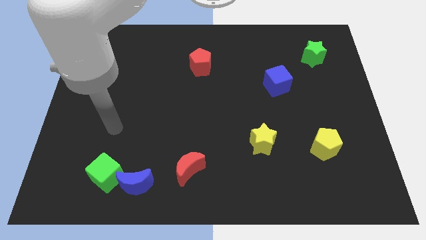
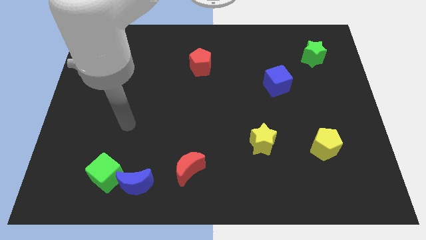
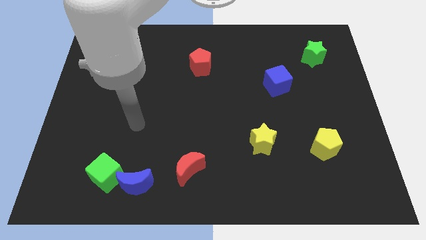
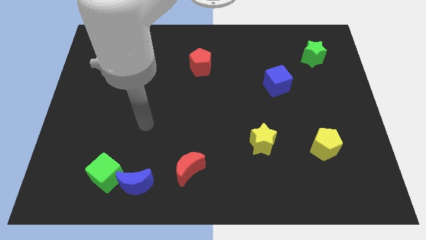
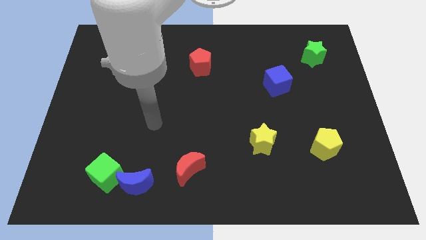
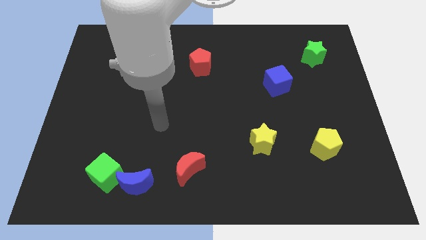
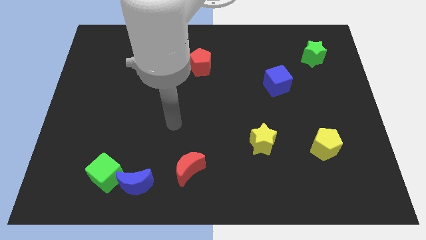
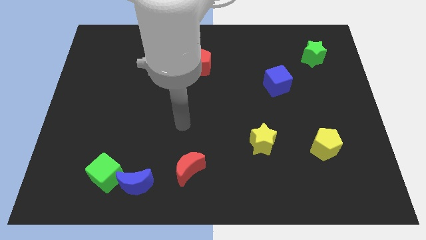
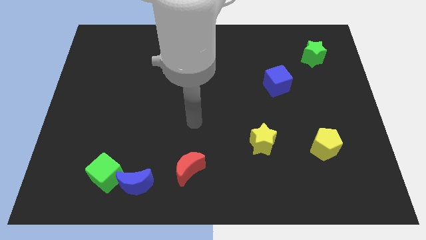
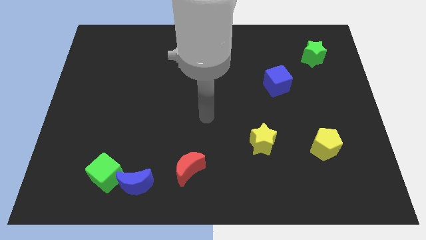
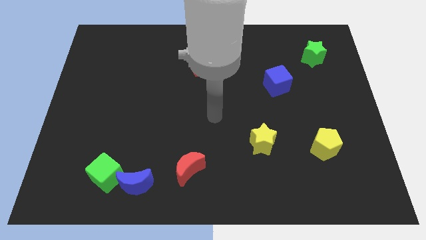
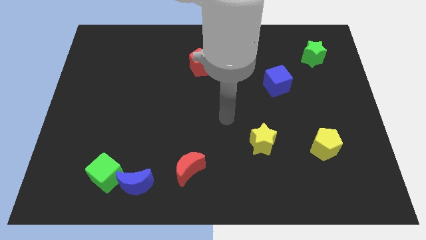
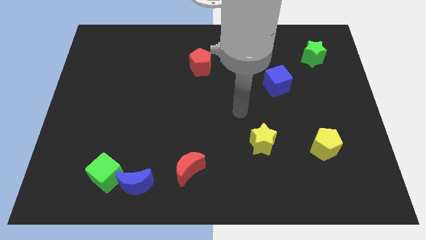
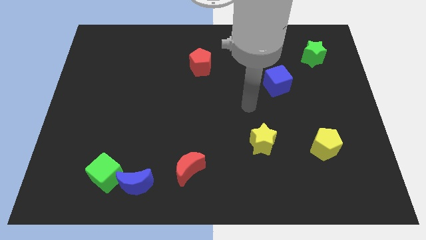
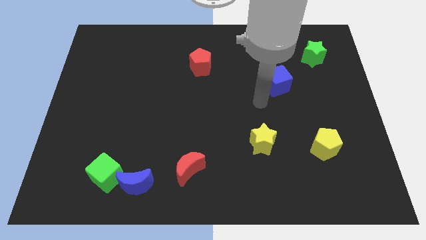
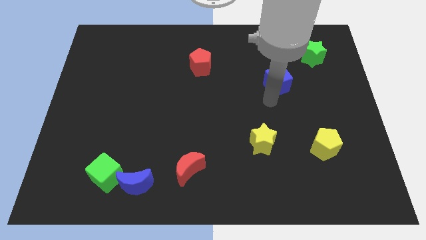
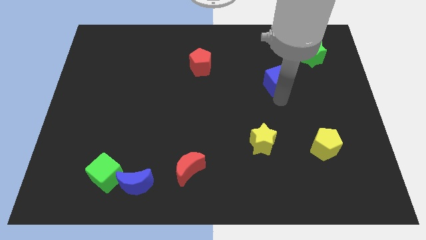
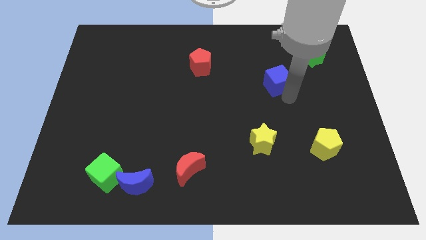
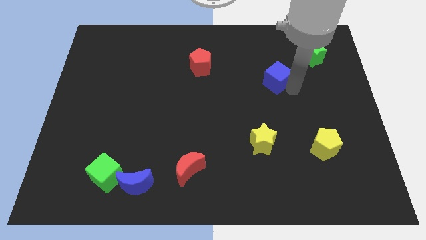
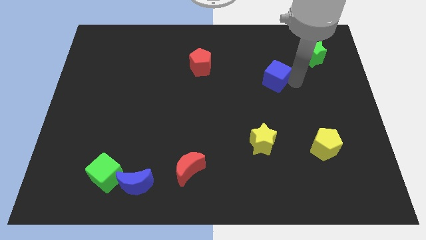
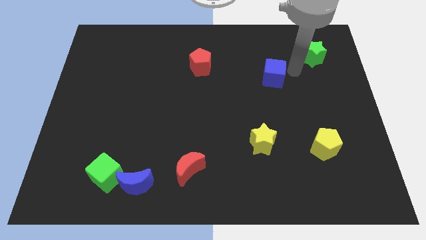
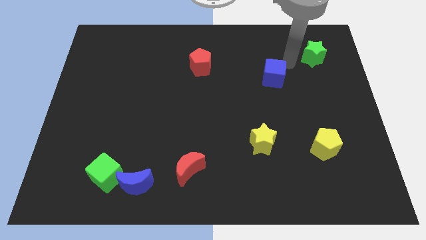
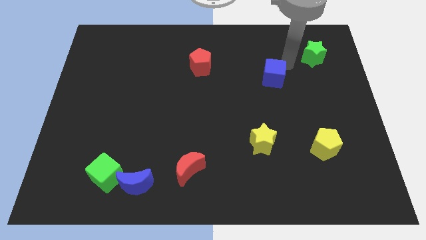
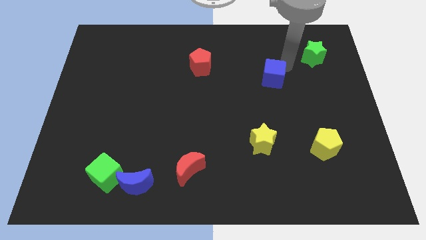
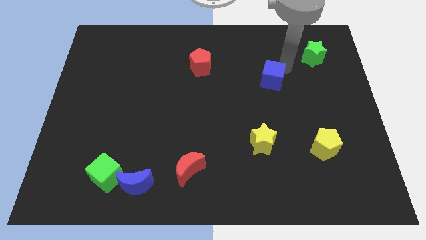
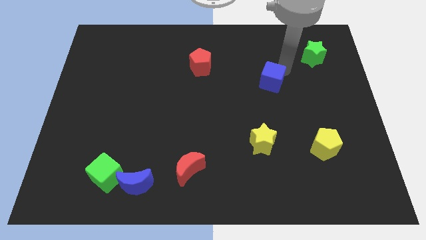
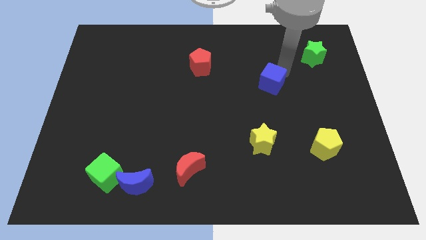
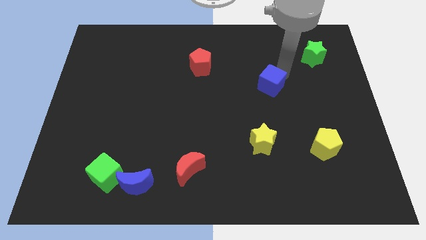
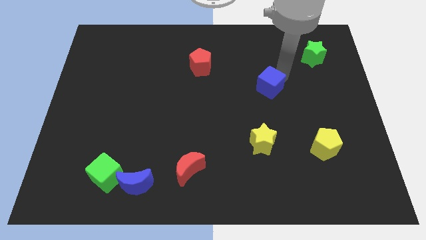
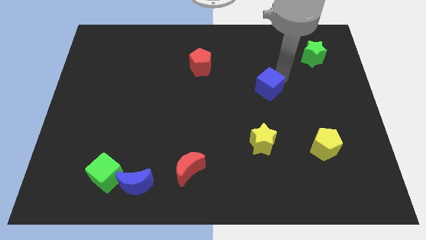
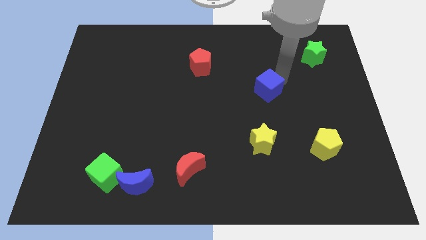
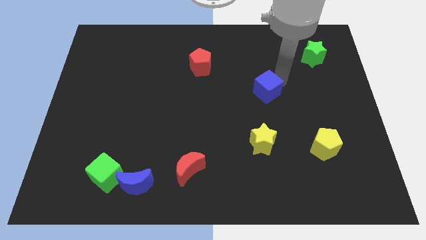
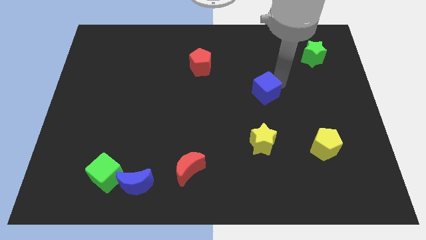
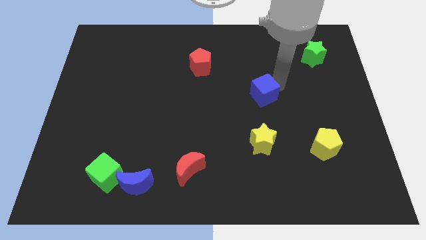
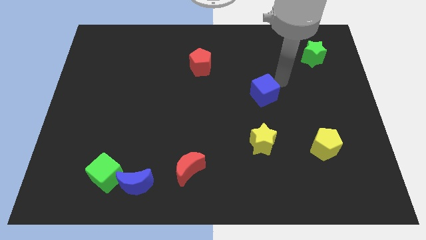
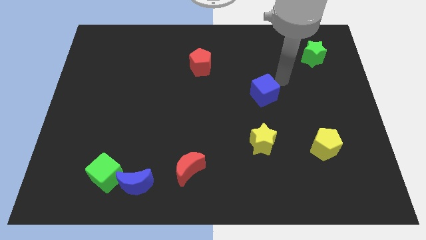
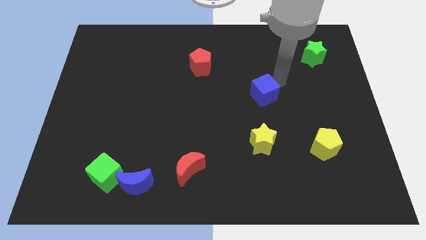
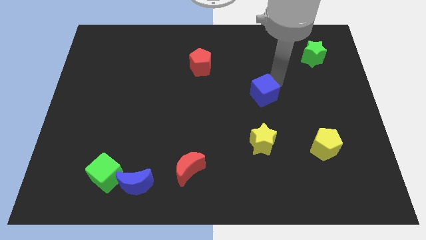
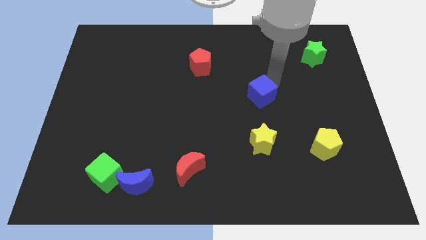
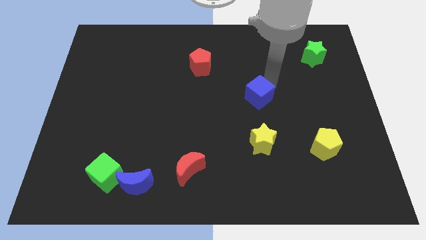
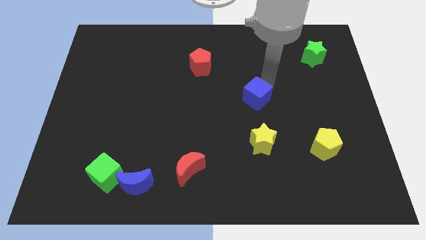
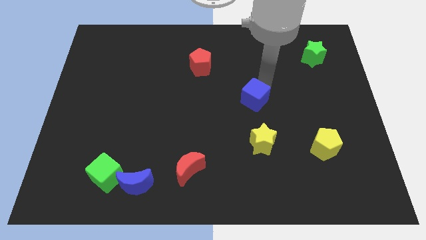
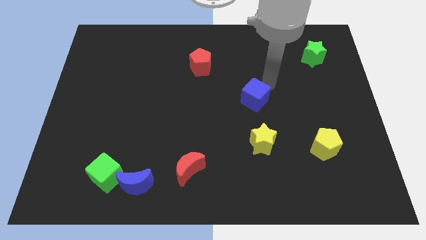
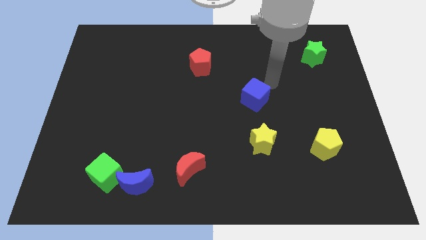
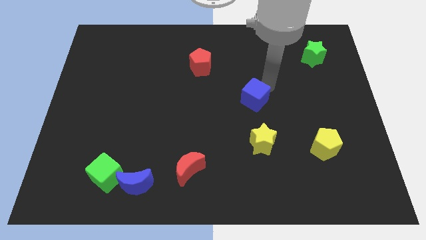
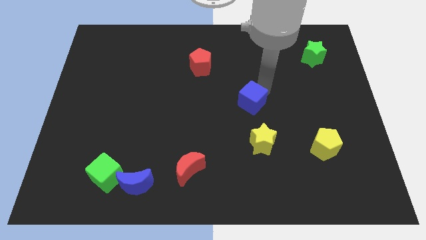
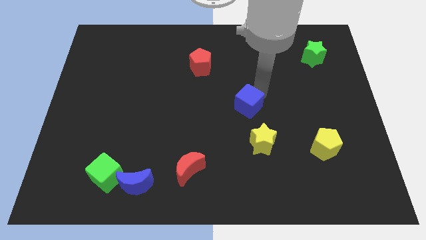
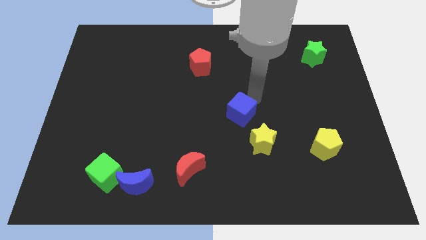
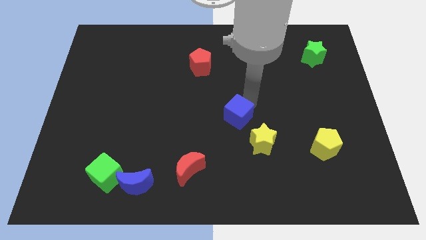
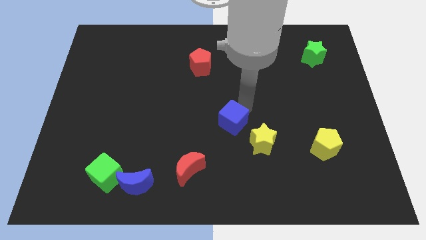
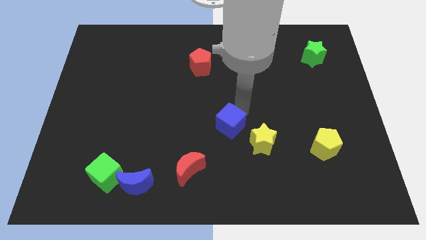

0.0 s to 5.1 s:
push the blue cube to the left side of the yellow star

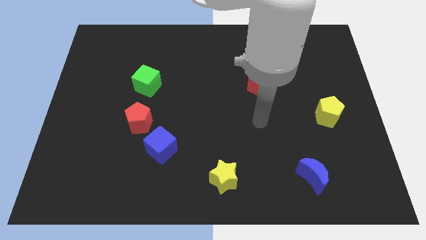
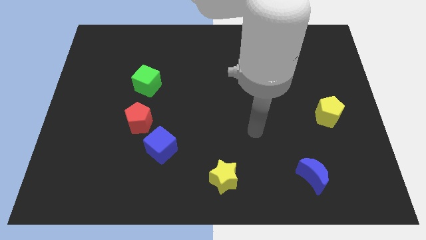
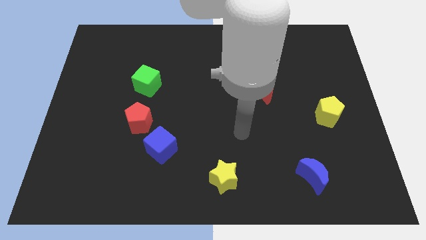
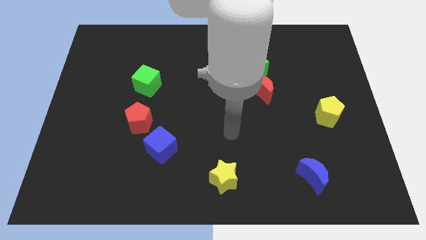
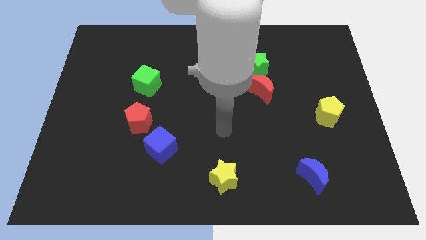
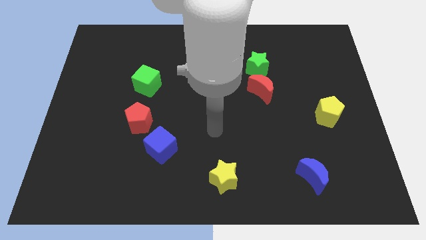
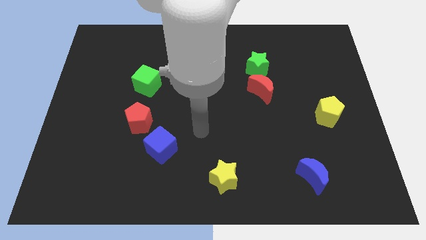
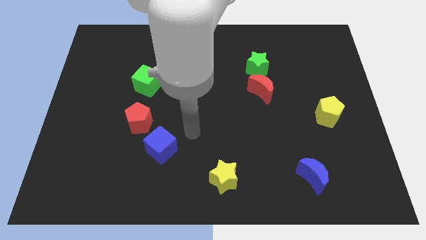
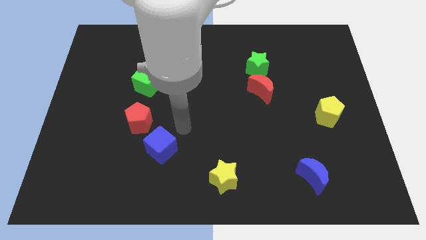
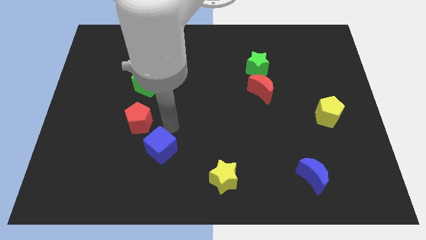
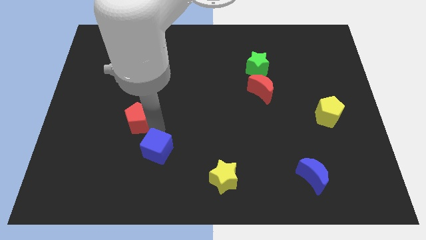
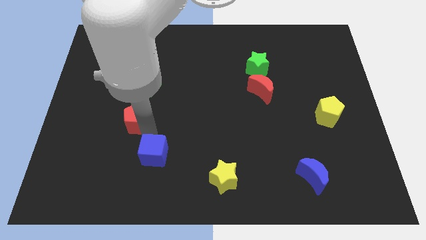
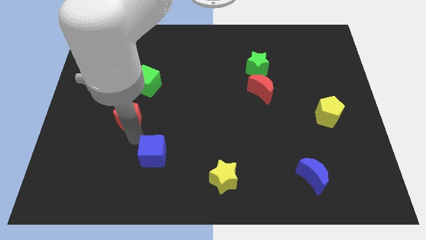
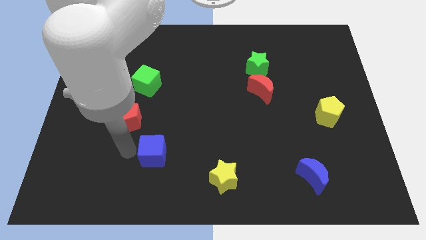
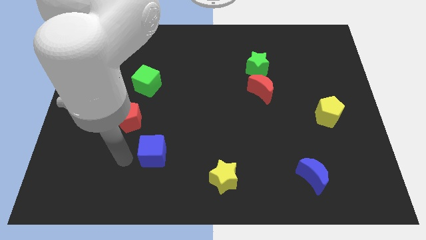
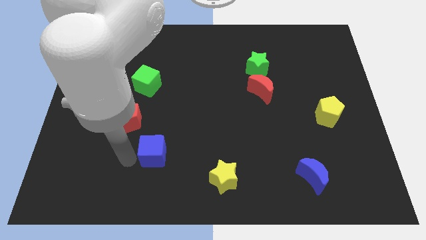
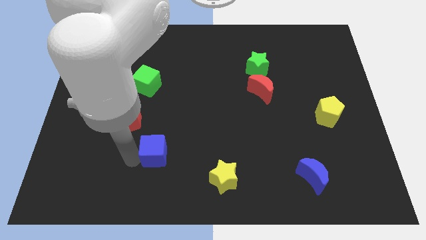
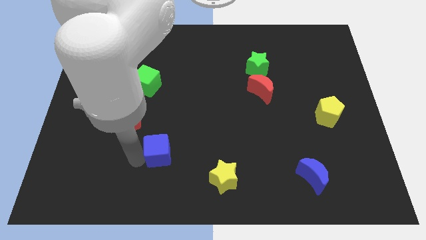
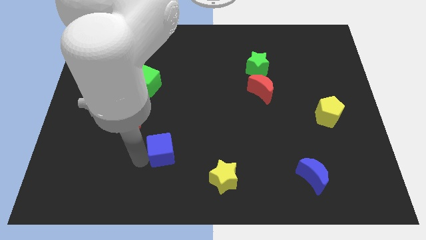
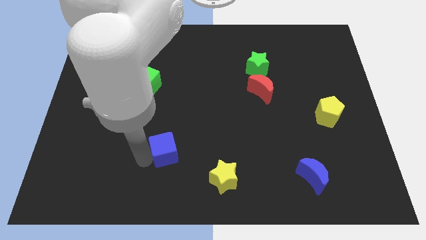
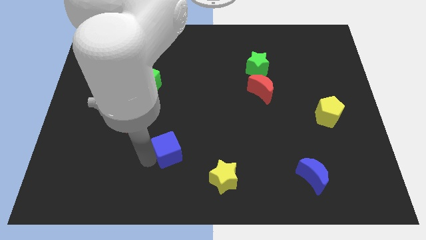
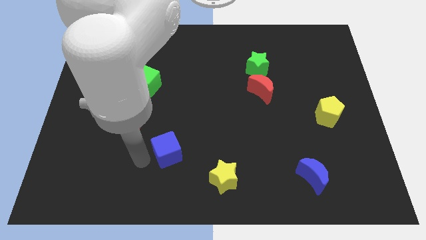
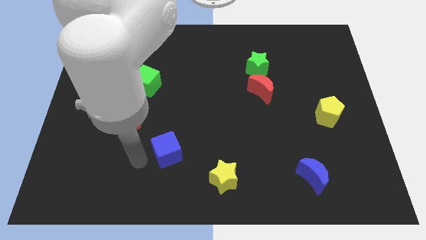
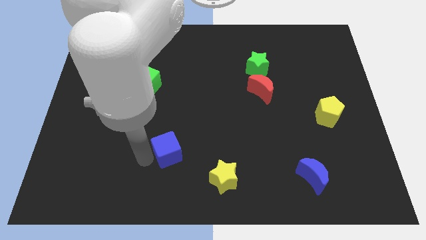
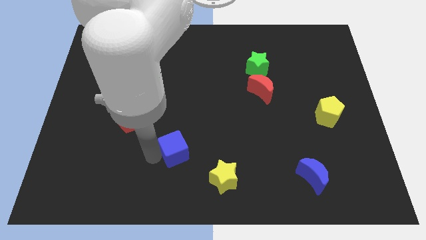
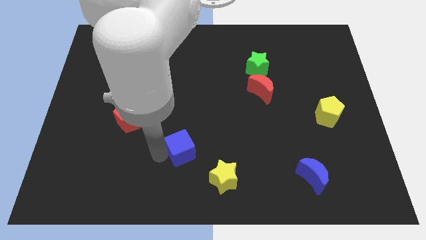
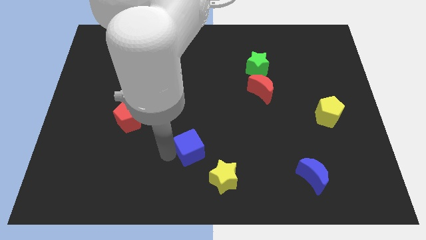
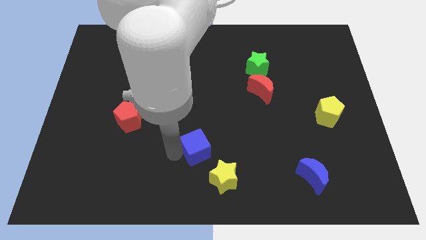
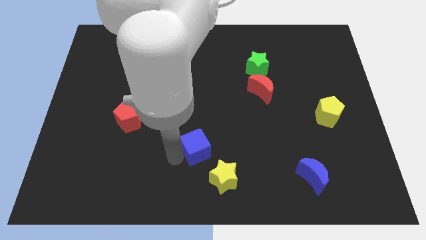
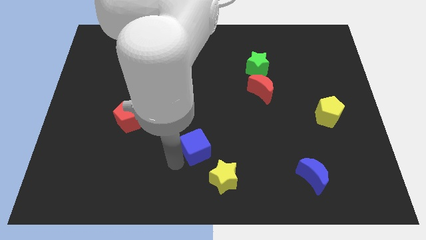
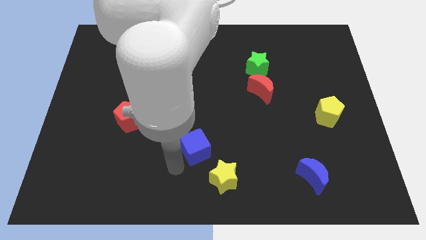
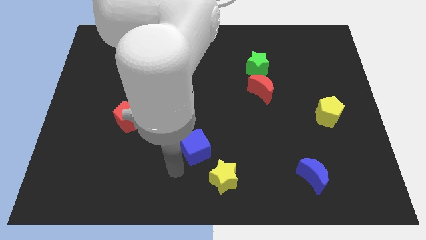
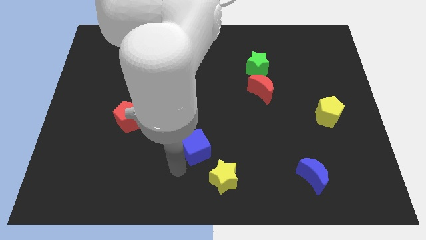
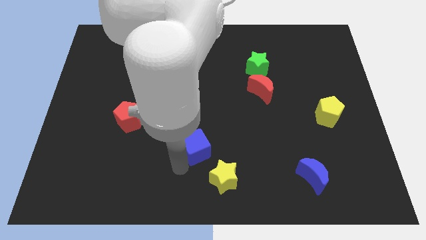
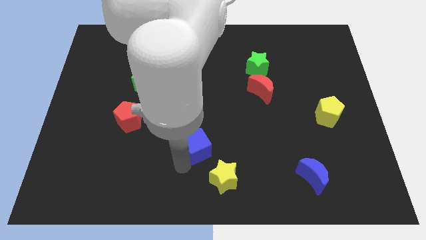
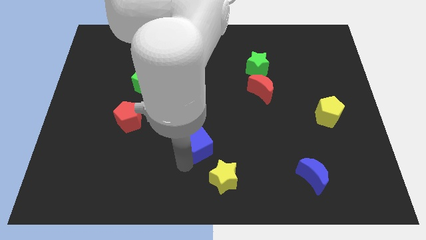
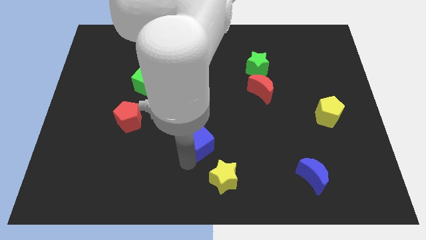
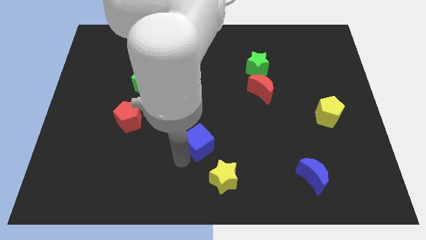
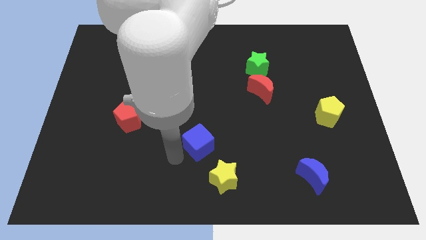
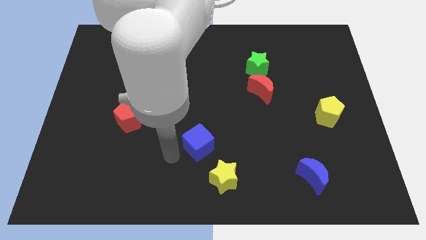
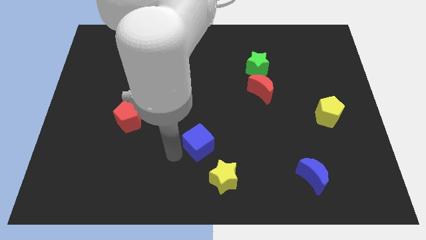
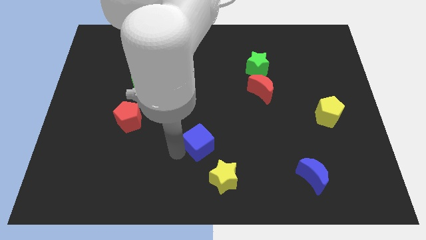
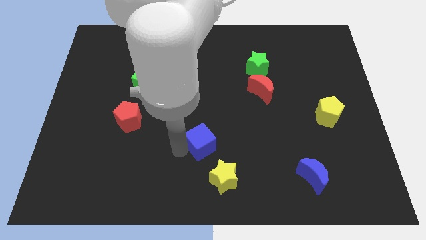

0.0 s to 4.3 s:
put the blue cube to the top side of the yellow star
